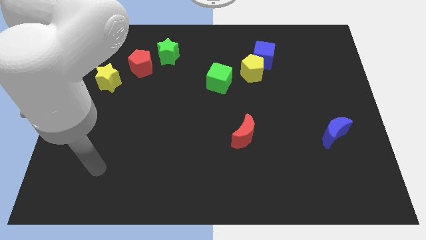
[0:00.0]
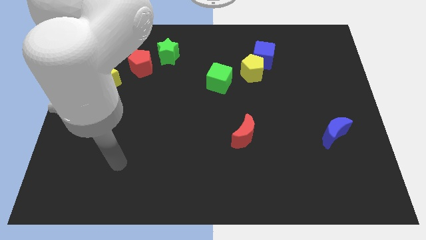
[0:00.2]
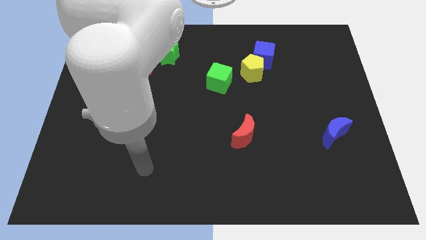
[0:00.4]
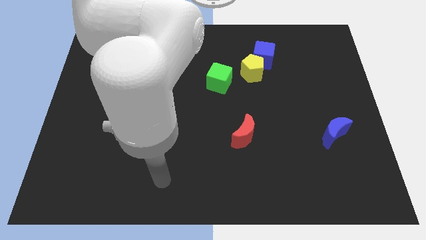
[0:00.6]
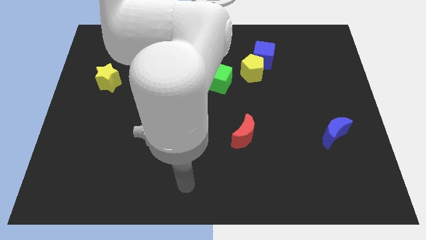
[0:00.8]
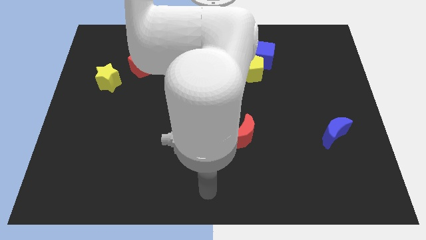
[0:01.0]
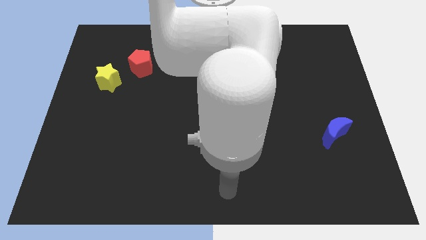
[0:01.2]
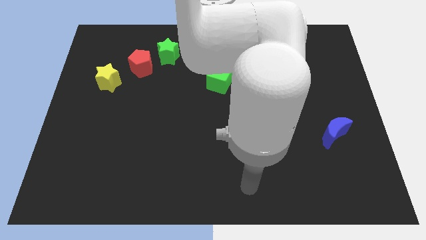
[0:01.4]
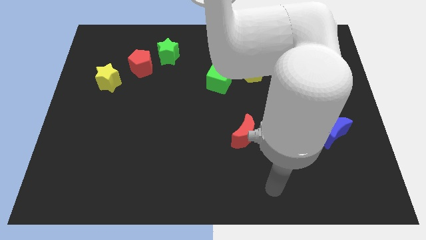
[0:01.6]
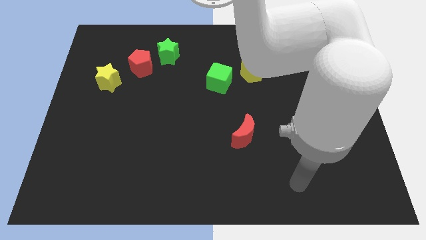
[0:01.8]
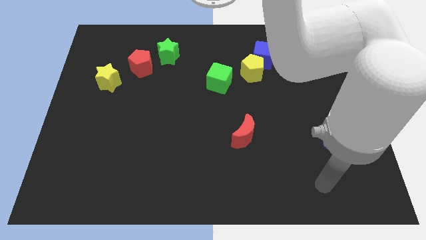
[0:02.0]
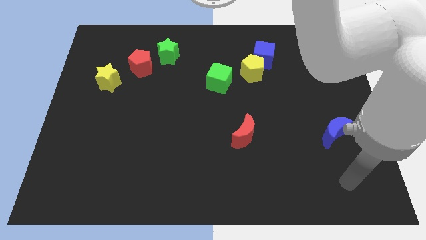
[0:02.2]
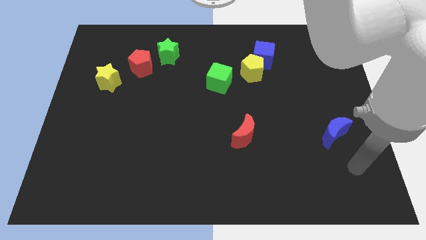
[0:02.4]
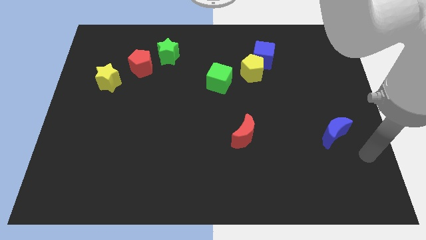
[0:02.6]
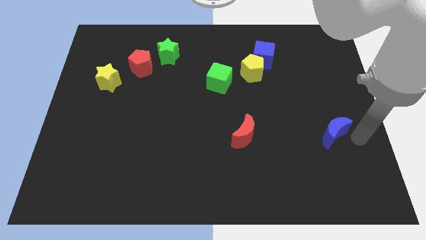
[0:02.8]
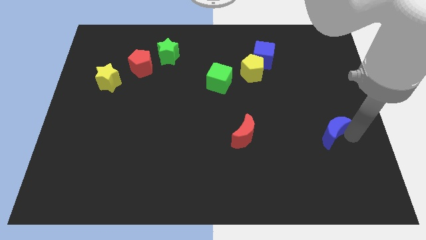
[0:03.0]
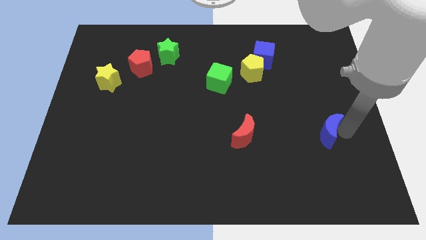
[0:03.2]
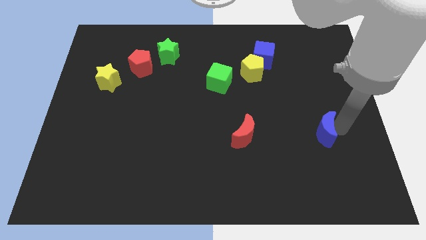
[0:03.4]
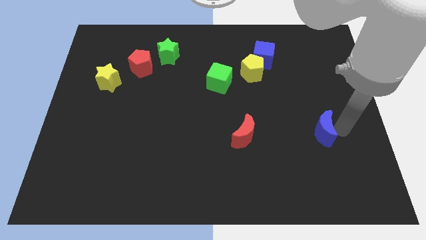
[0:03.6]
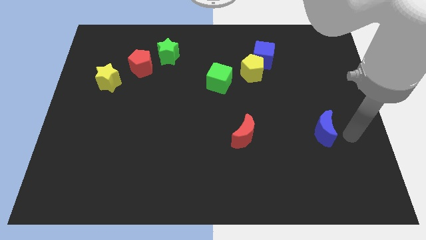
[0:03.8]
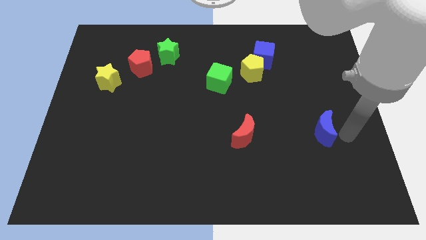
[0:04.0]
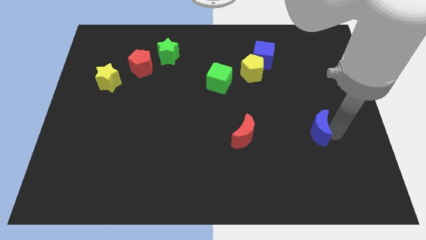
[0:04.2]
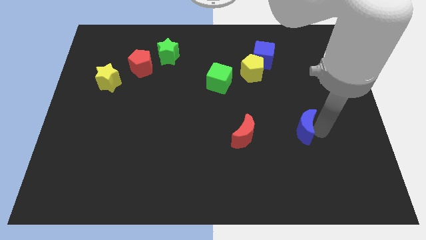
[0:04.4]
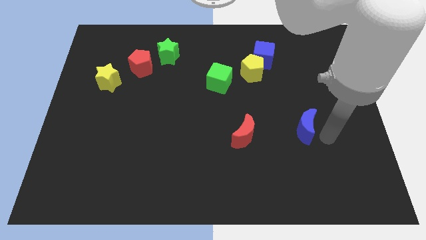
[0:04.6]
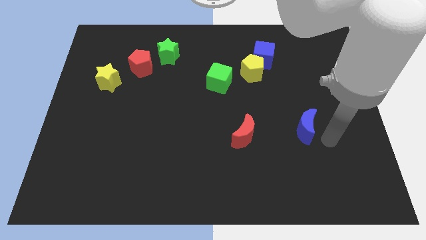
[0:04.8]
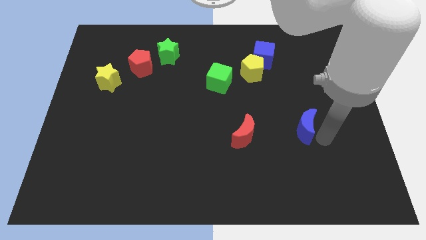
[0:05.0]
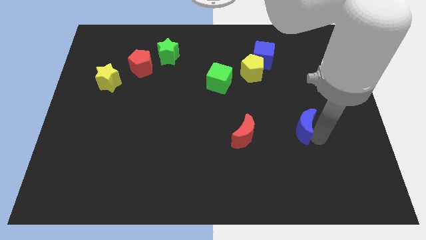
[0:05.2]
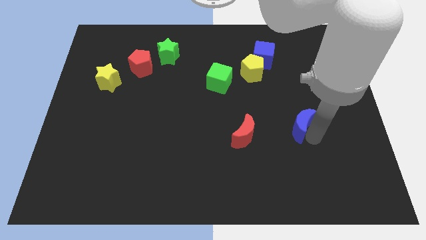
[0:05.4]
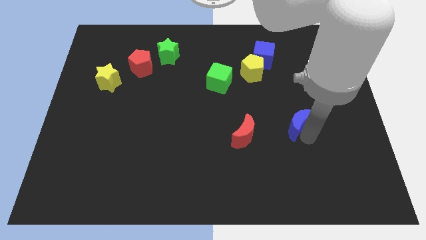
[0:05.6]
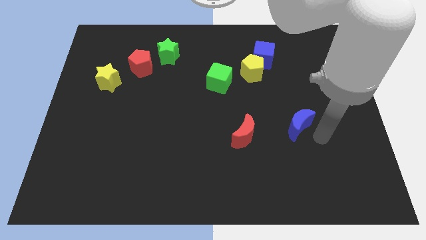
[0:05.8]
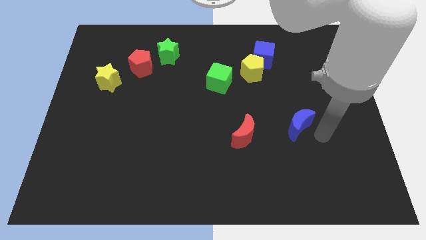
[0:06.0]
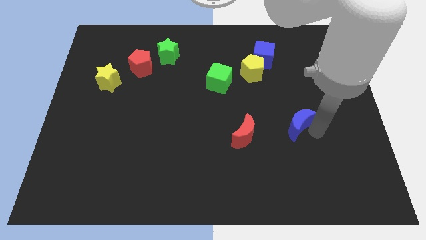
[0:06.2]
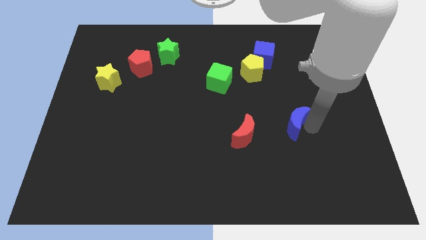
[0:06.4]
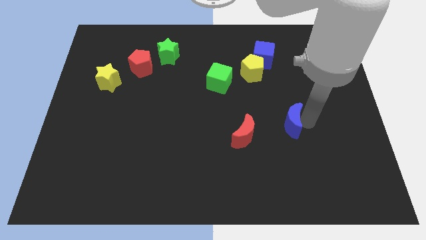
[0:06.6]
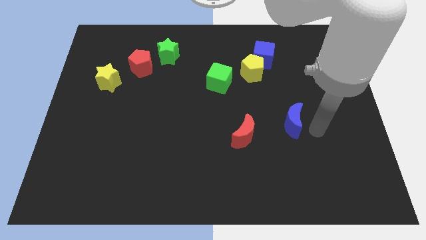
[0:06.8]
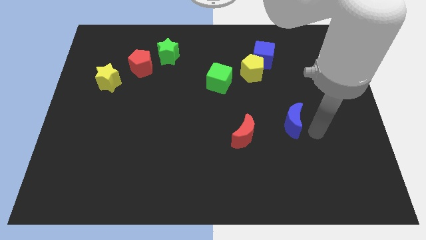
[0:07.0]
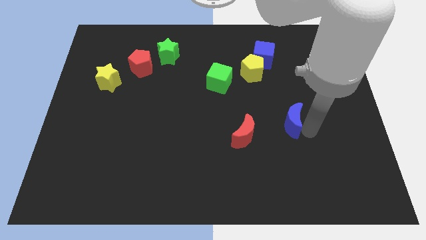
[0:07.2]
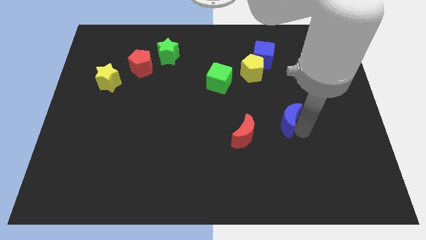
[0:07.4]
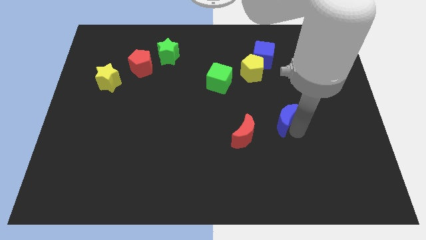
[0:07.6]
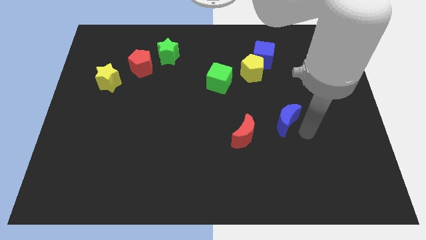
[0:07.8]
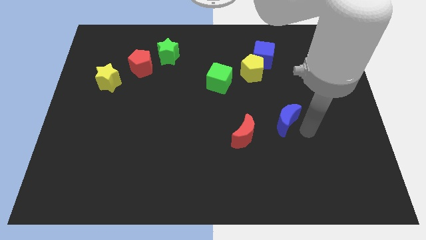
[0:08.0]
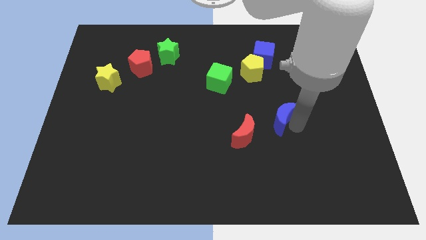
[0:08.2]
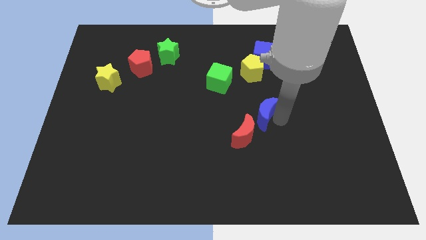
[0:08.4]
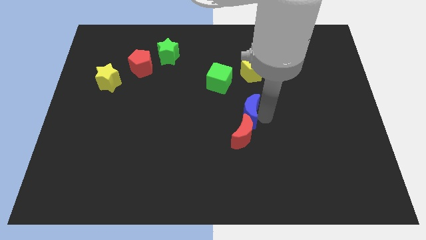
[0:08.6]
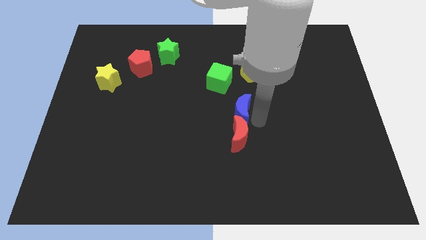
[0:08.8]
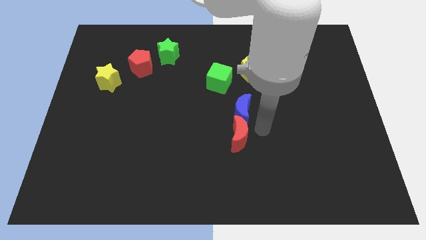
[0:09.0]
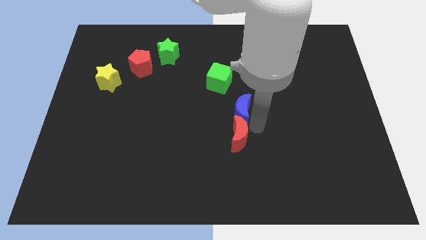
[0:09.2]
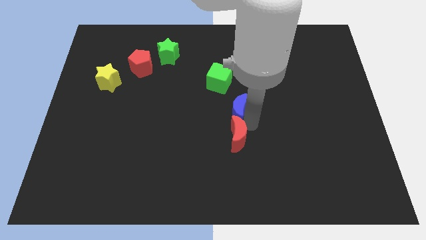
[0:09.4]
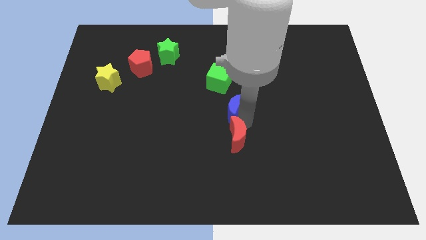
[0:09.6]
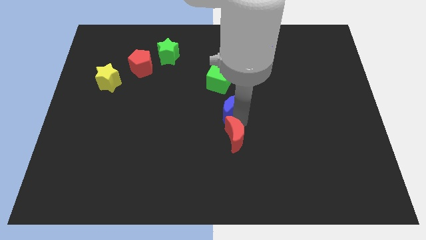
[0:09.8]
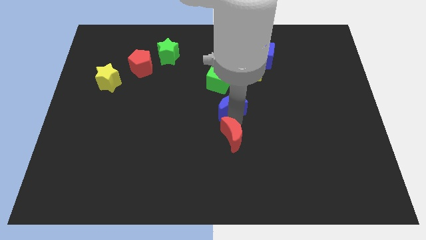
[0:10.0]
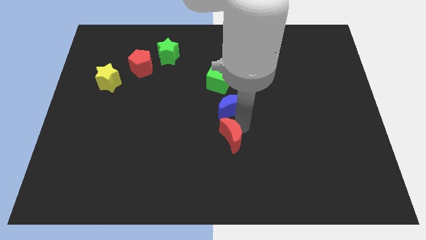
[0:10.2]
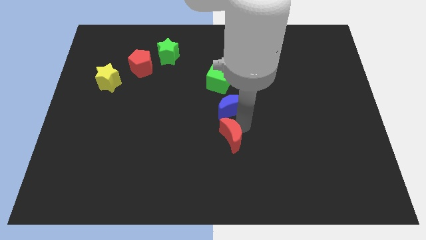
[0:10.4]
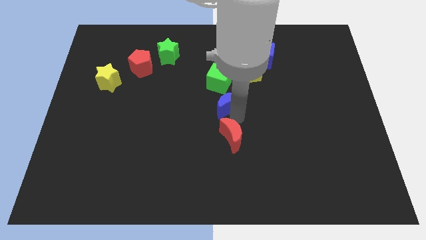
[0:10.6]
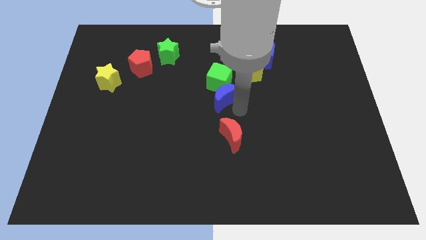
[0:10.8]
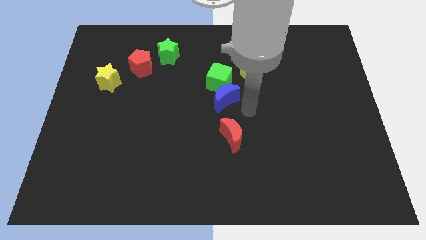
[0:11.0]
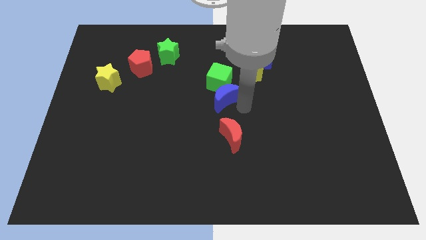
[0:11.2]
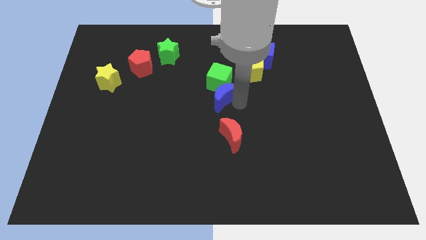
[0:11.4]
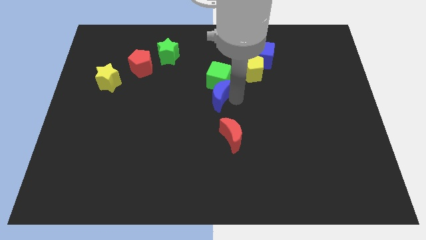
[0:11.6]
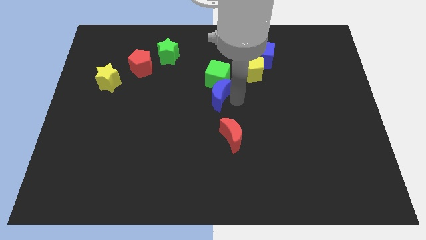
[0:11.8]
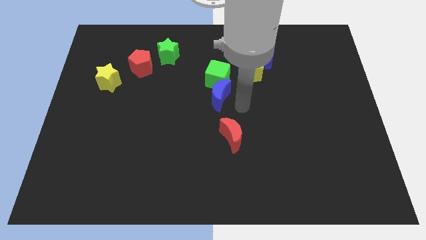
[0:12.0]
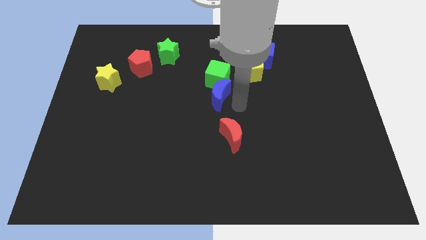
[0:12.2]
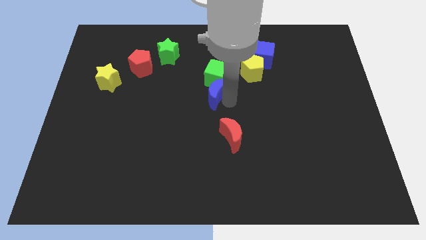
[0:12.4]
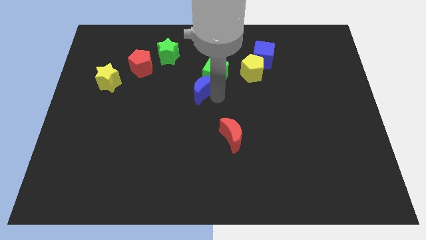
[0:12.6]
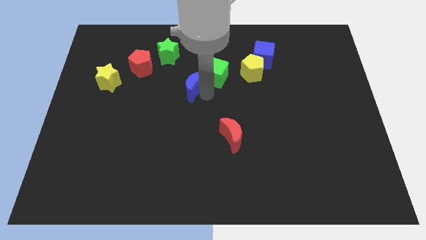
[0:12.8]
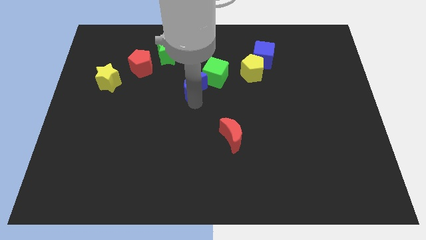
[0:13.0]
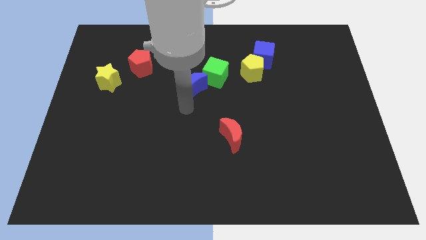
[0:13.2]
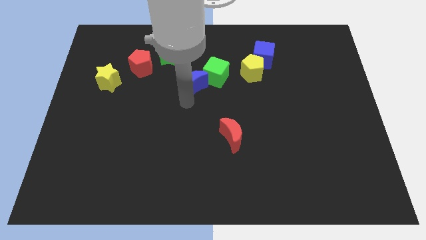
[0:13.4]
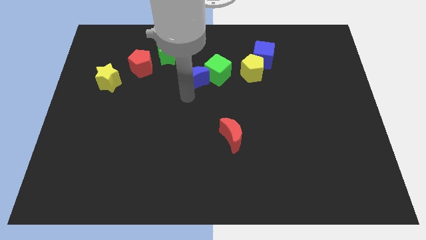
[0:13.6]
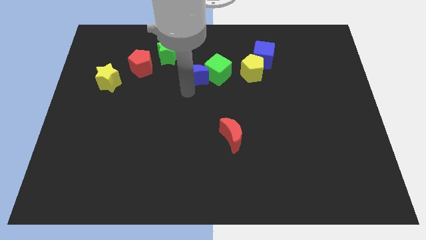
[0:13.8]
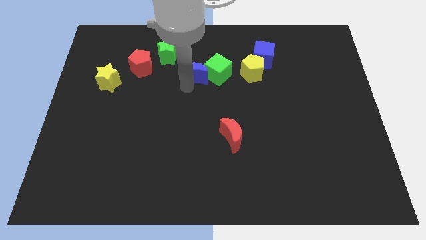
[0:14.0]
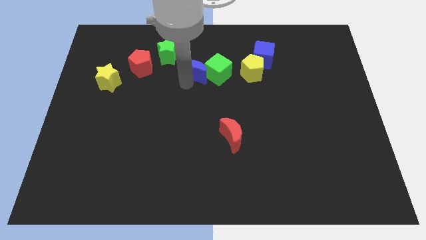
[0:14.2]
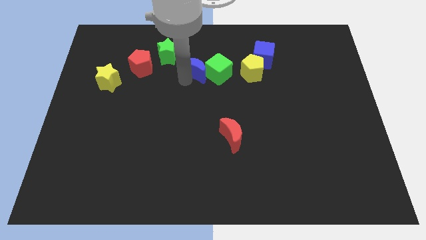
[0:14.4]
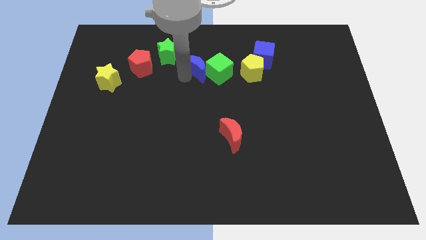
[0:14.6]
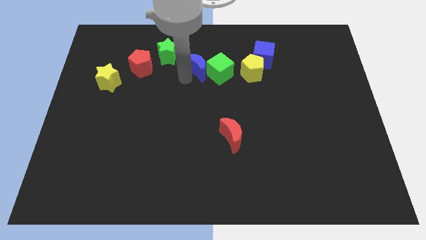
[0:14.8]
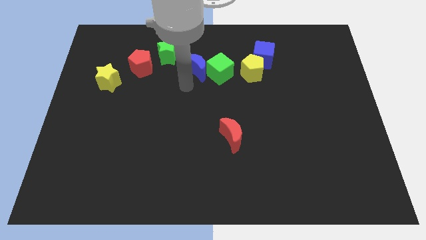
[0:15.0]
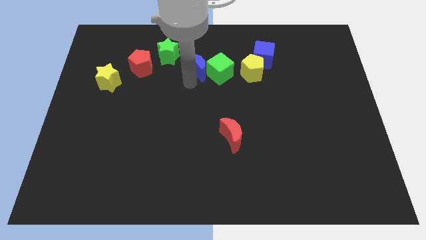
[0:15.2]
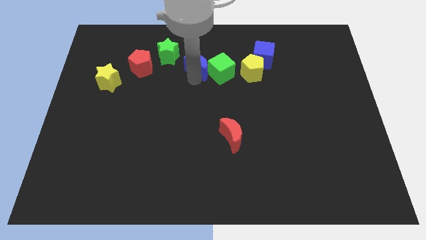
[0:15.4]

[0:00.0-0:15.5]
move the blue moon right of the green star

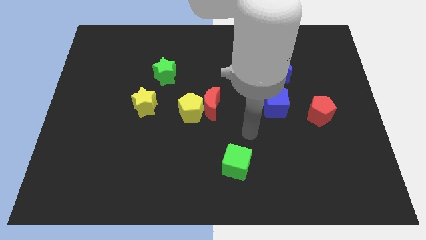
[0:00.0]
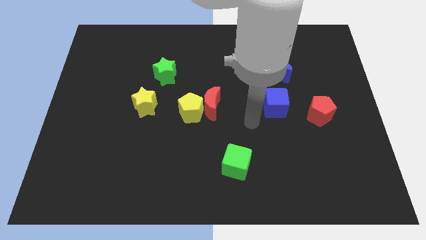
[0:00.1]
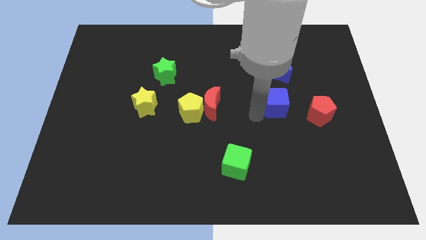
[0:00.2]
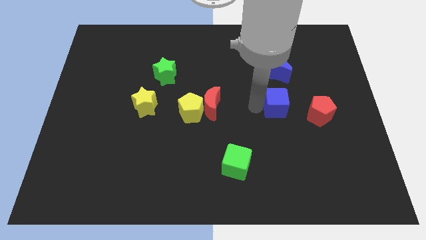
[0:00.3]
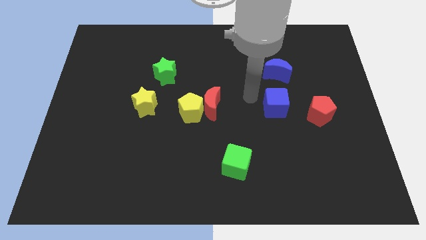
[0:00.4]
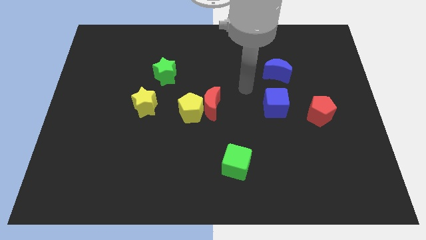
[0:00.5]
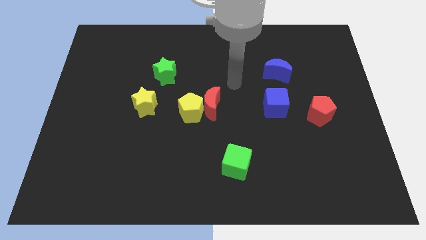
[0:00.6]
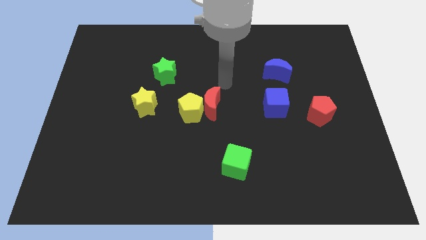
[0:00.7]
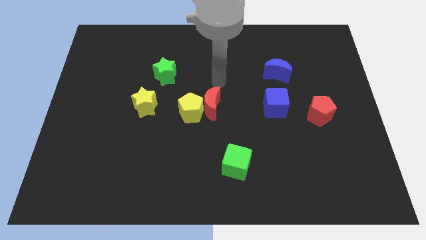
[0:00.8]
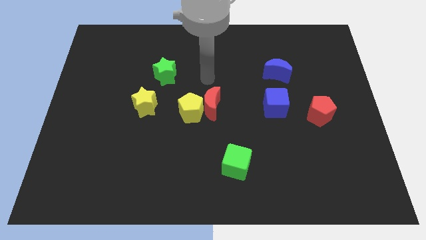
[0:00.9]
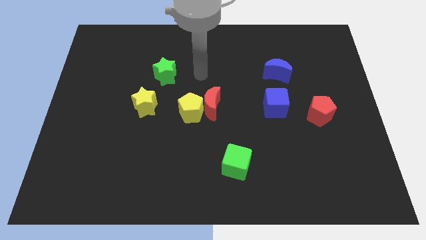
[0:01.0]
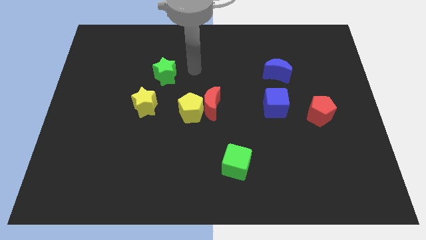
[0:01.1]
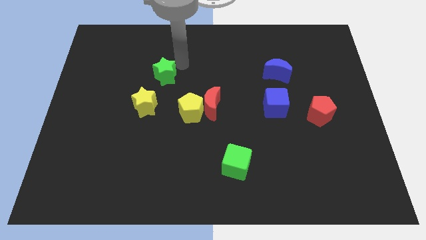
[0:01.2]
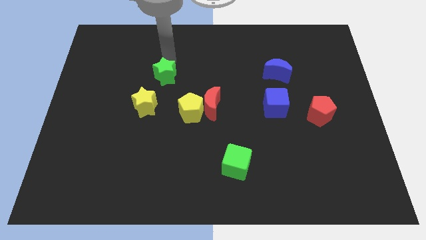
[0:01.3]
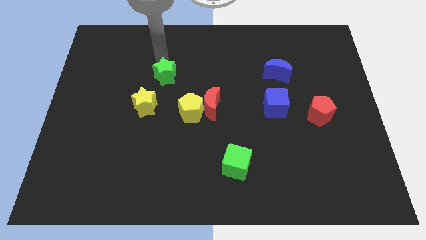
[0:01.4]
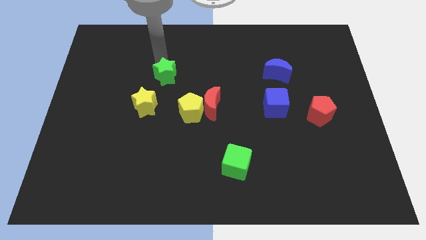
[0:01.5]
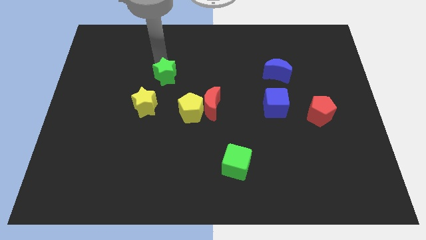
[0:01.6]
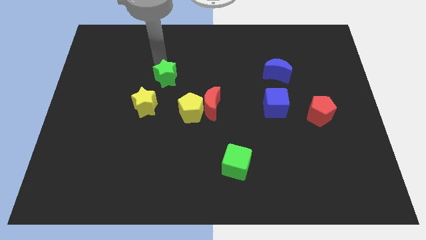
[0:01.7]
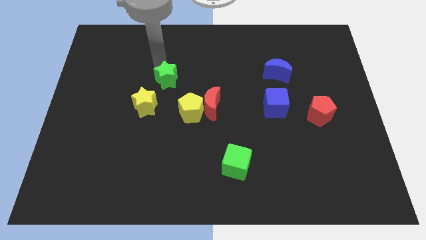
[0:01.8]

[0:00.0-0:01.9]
put the green star diagonally up and to the left of the yellow pentagon
